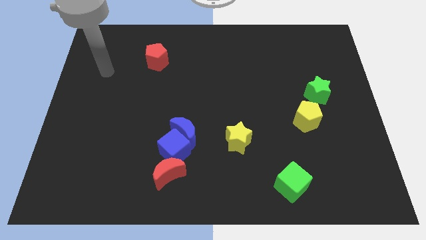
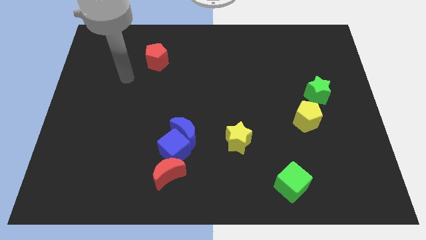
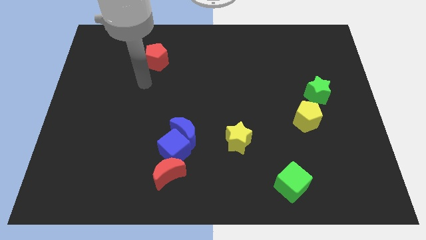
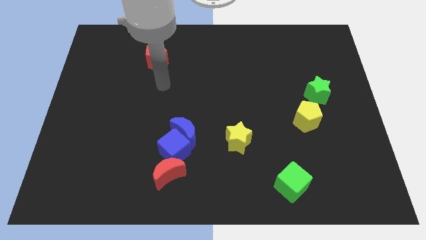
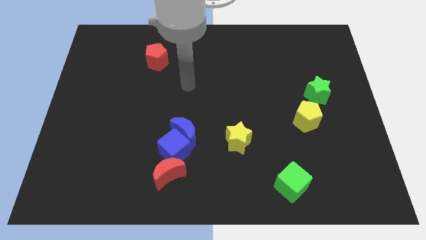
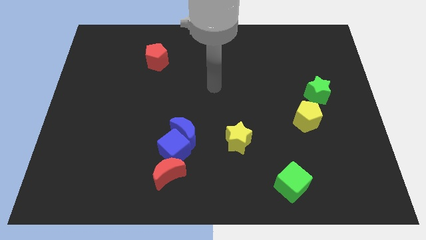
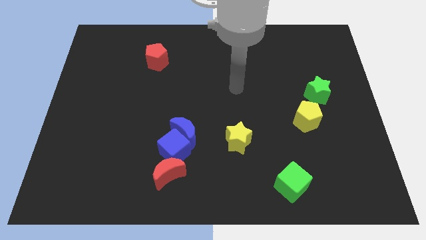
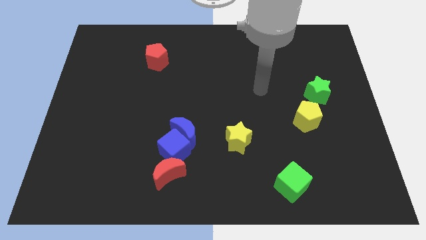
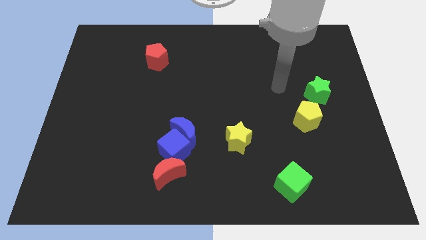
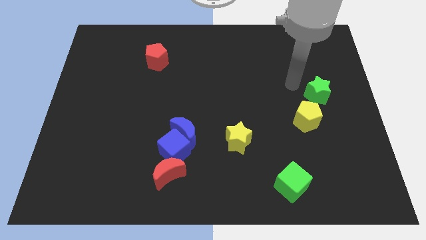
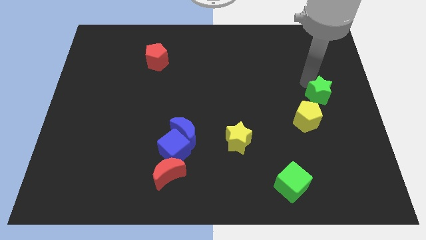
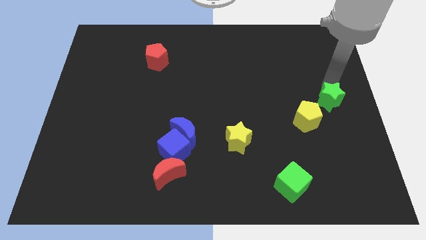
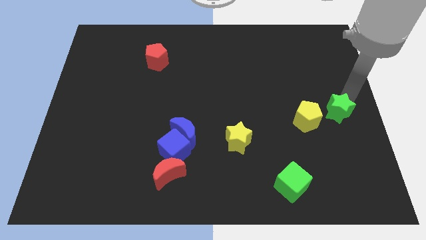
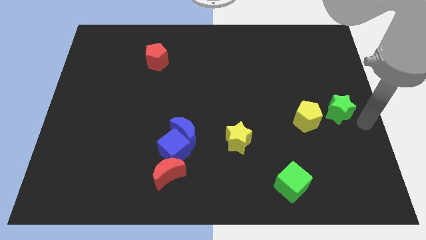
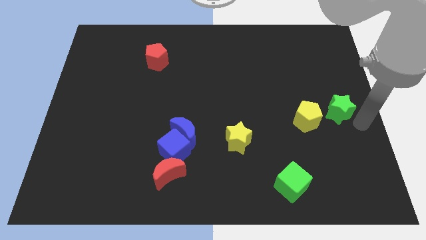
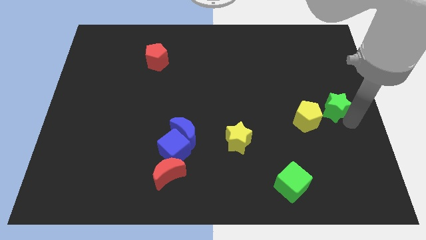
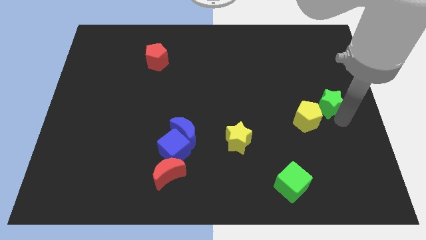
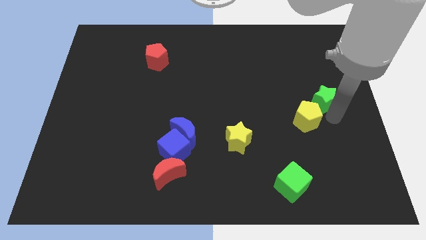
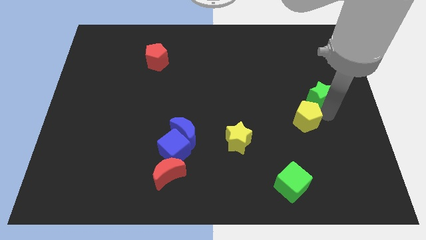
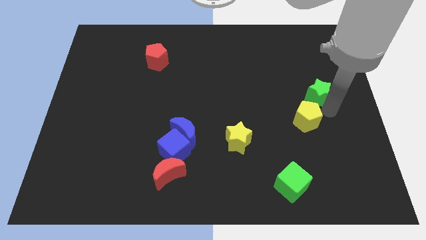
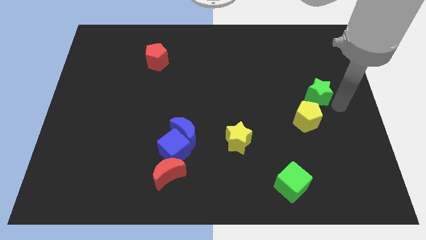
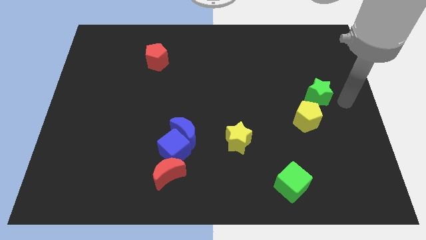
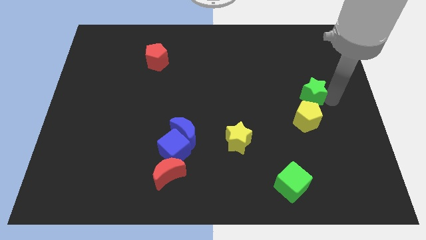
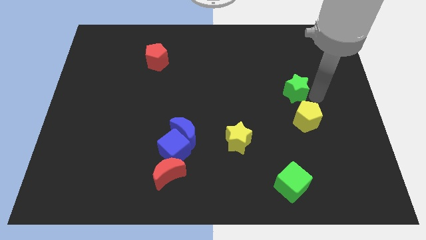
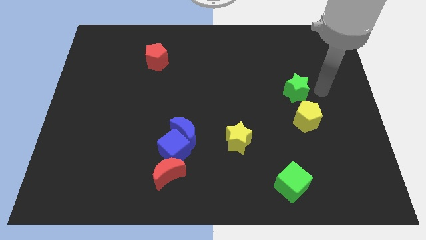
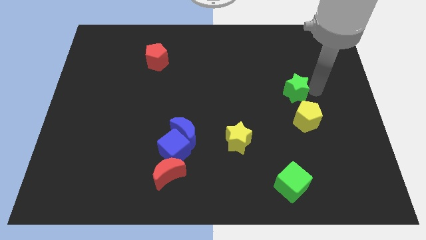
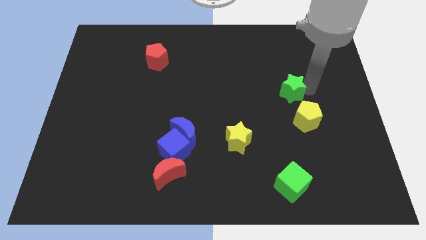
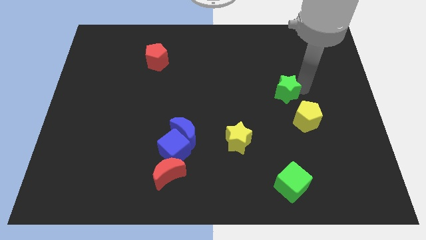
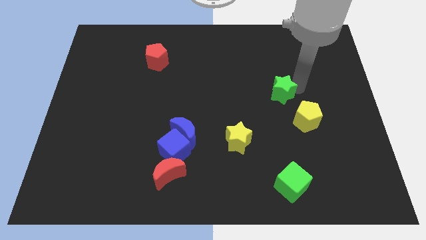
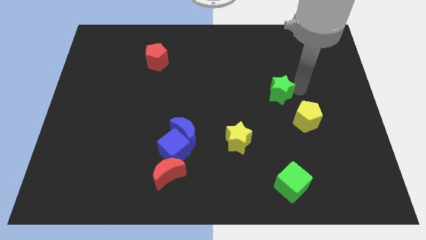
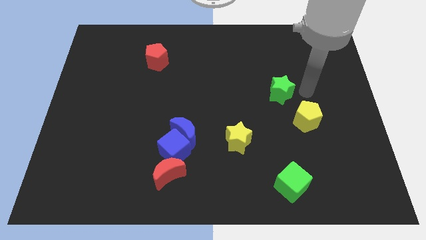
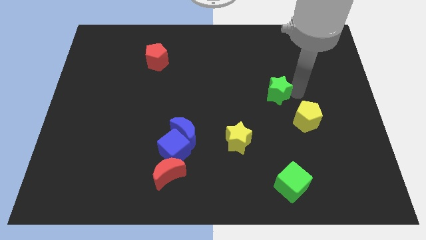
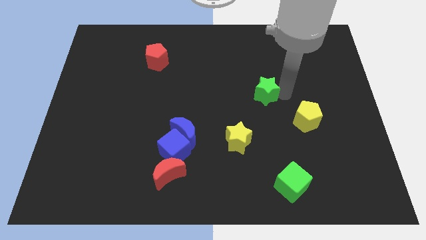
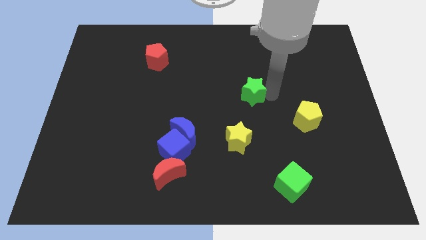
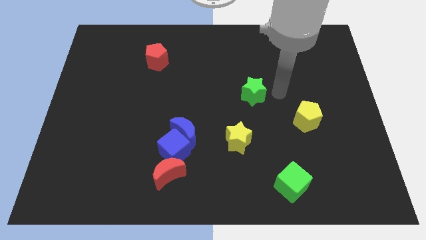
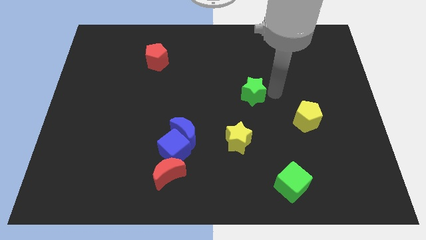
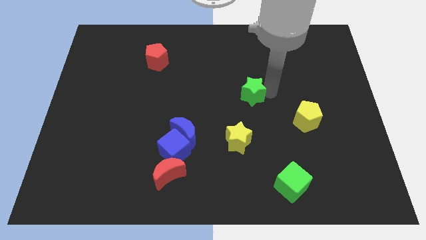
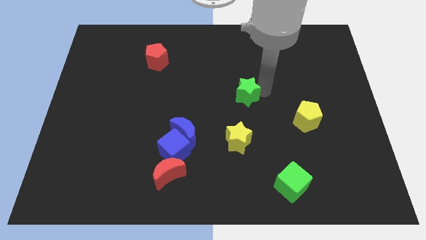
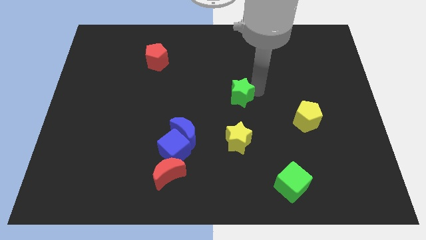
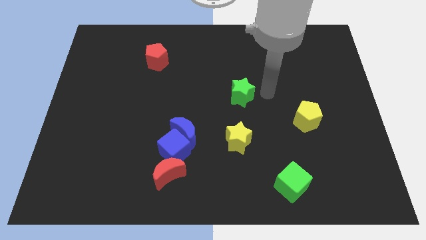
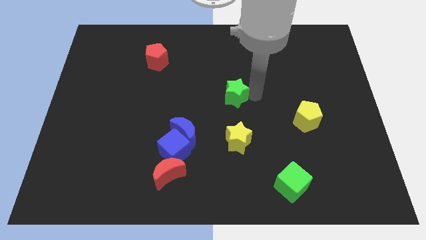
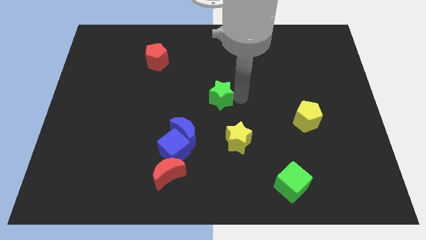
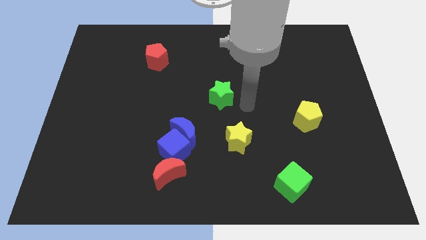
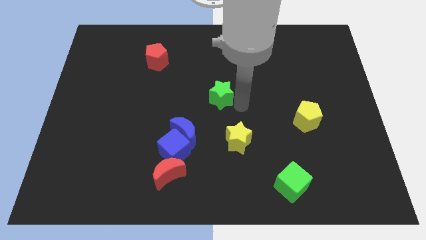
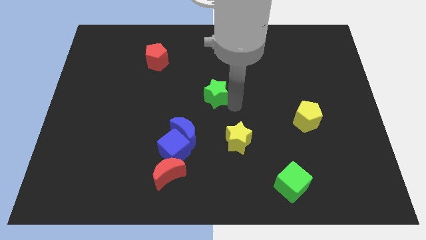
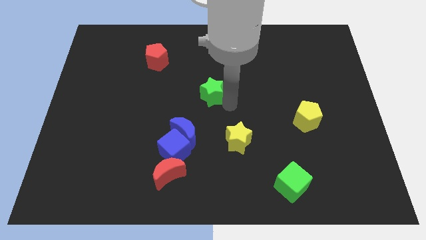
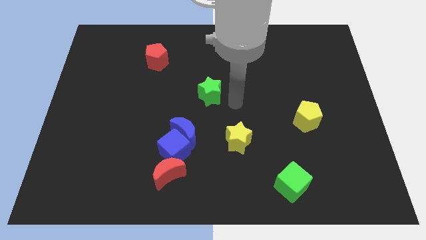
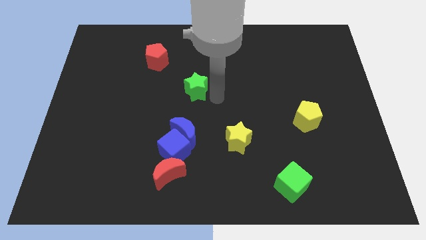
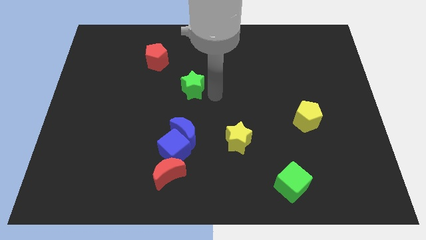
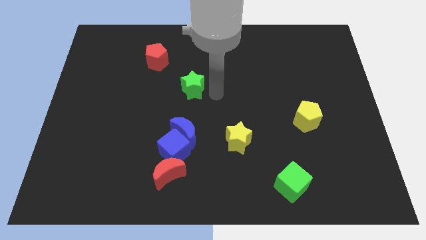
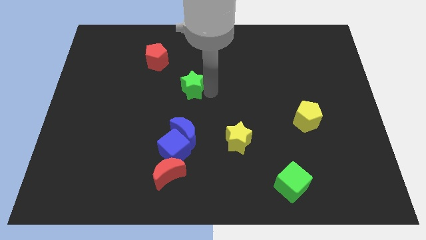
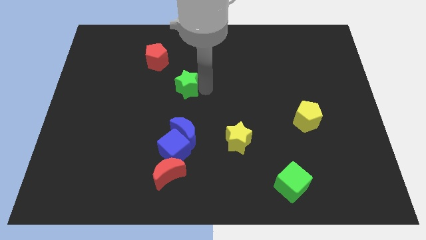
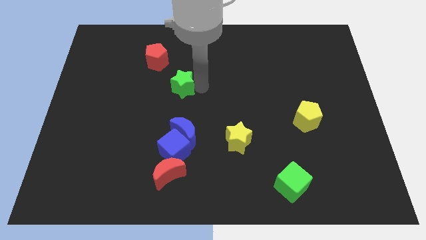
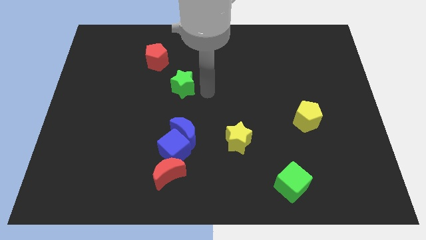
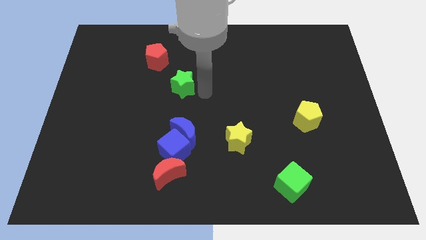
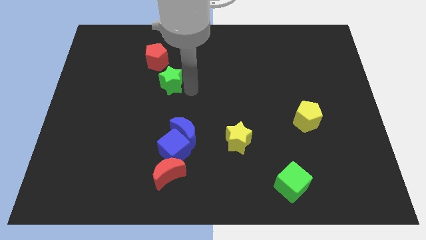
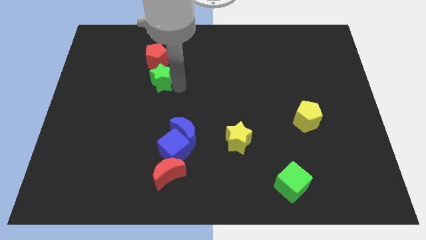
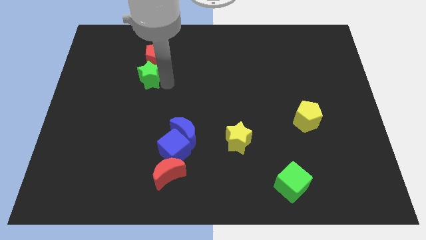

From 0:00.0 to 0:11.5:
push the green star to the bottom left of the red pentagon

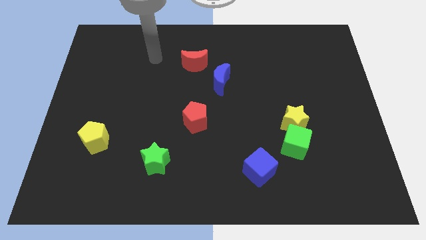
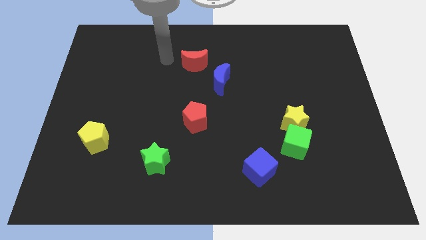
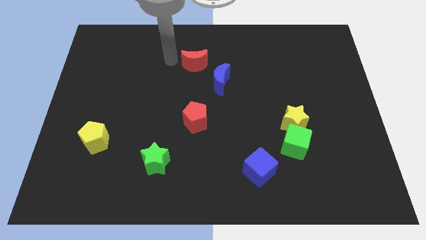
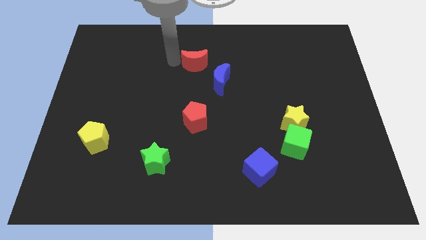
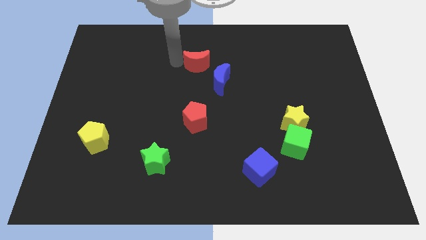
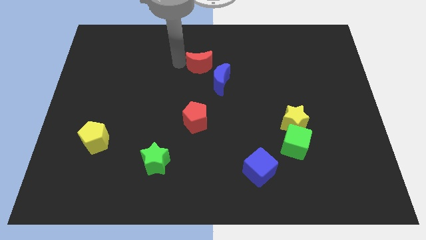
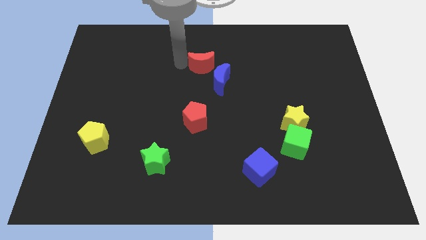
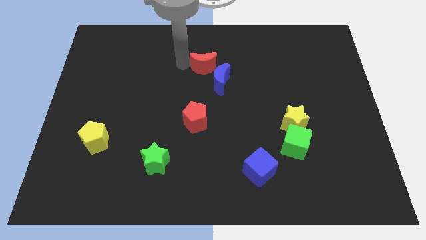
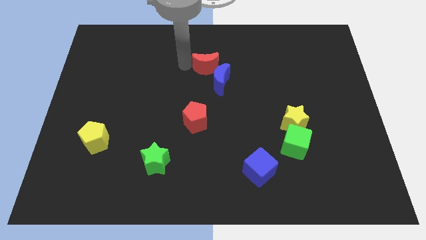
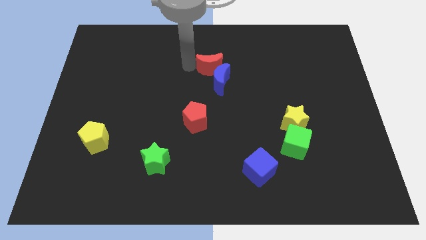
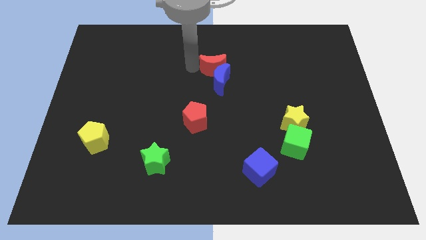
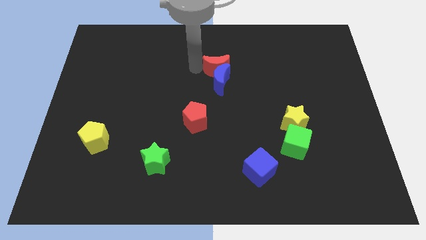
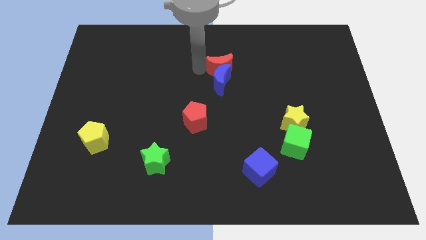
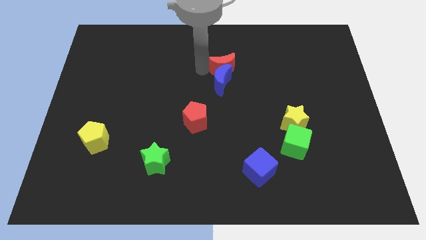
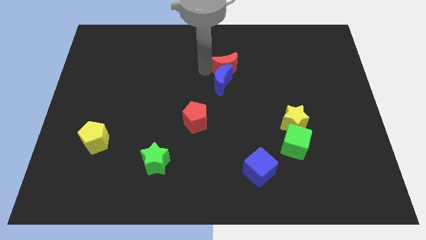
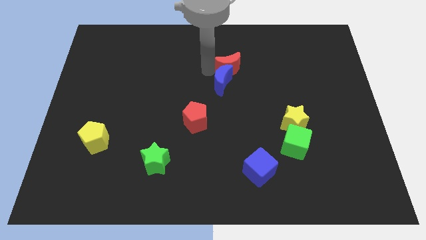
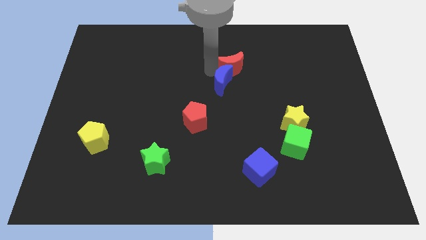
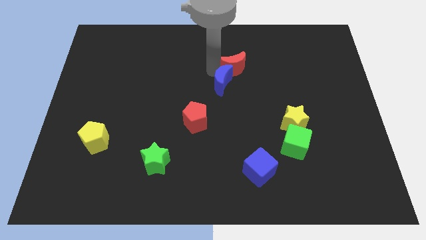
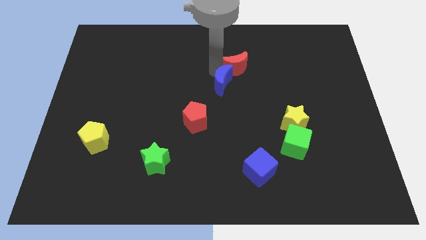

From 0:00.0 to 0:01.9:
push the red moon right of the blue moon
